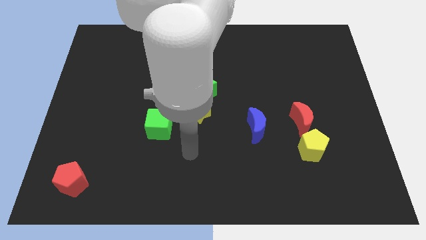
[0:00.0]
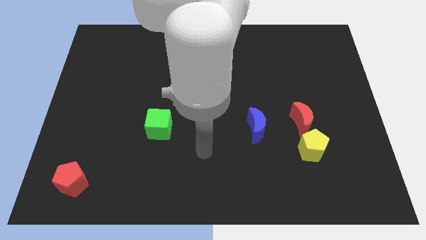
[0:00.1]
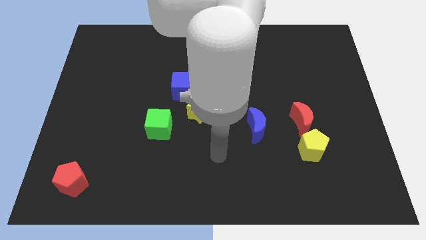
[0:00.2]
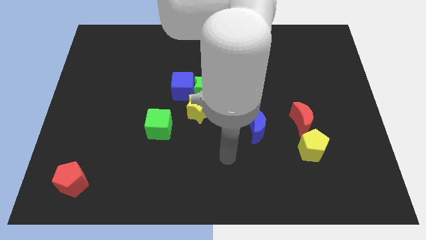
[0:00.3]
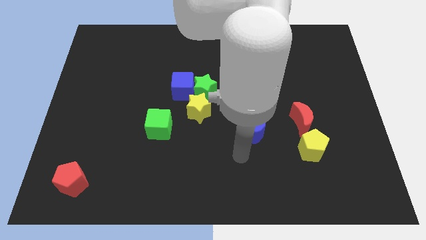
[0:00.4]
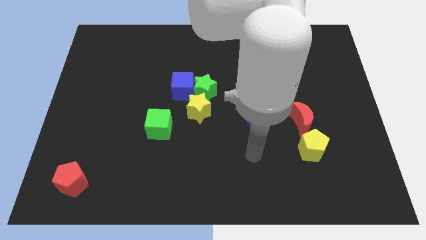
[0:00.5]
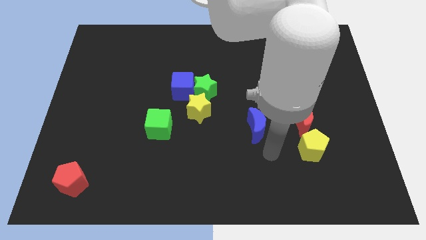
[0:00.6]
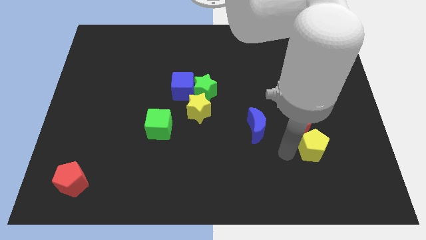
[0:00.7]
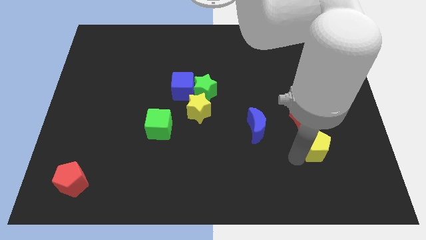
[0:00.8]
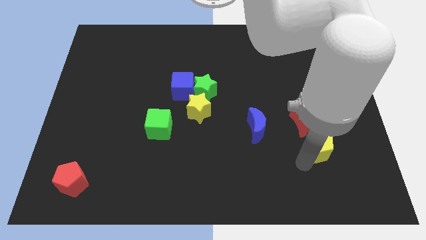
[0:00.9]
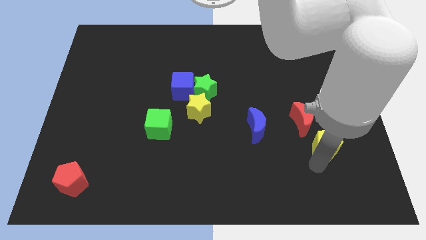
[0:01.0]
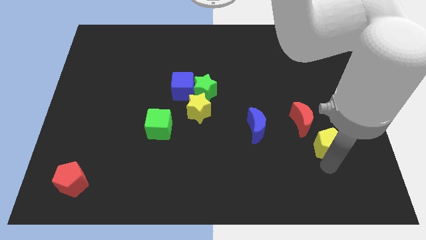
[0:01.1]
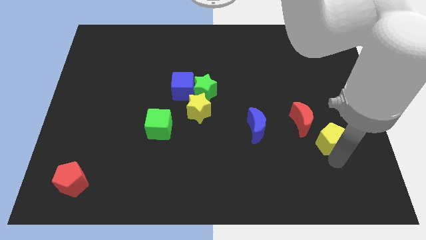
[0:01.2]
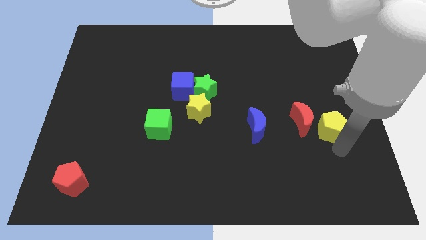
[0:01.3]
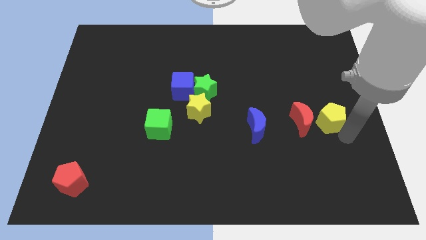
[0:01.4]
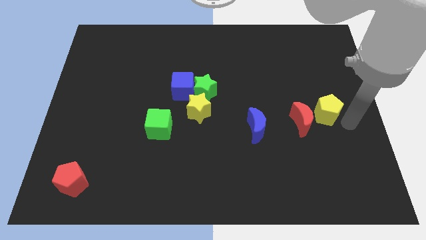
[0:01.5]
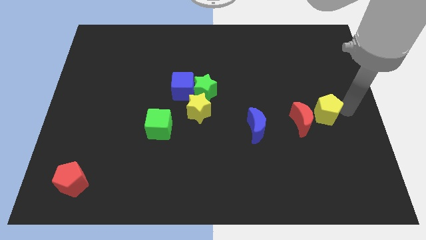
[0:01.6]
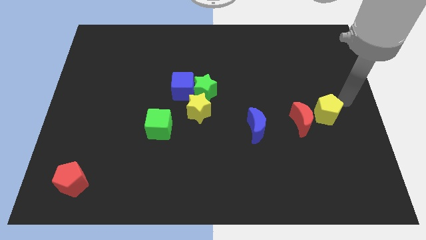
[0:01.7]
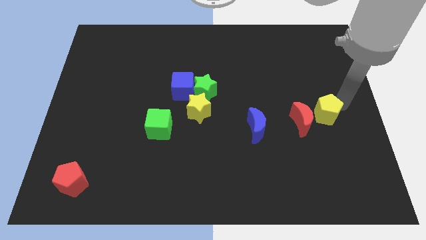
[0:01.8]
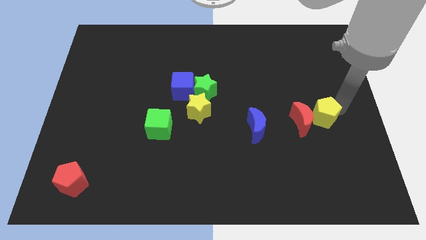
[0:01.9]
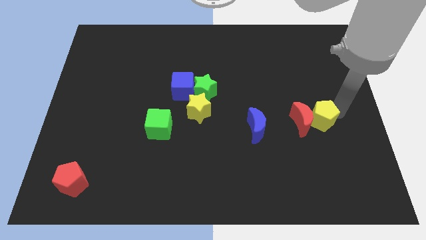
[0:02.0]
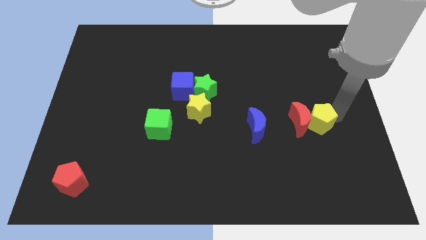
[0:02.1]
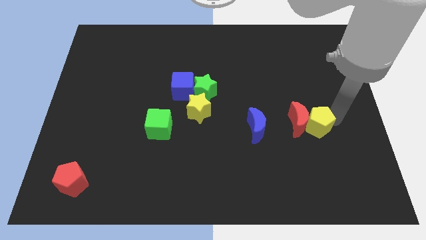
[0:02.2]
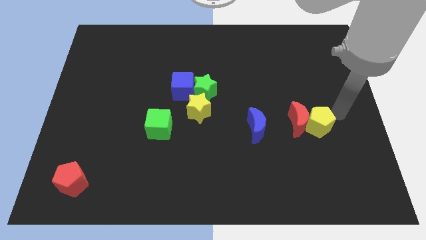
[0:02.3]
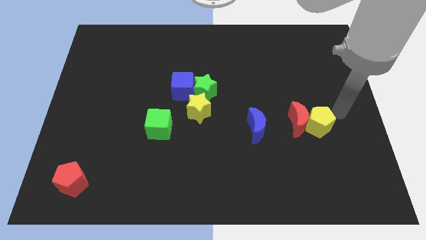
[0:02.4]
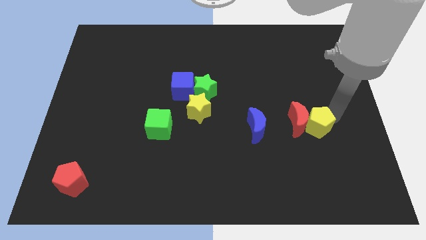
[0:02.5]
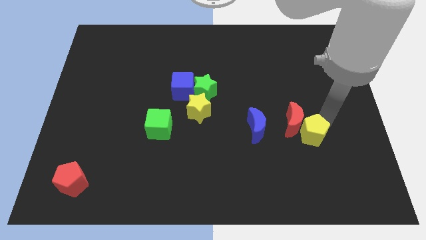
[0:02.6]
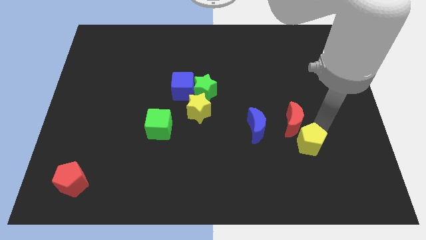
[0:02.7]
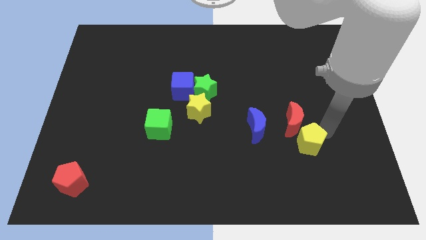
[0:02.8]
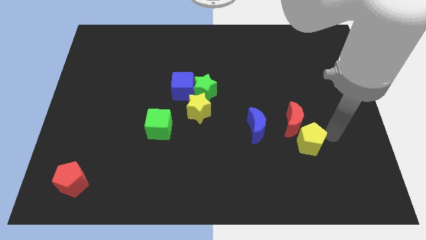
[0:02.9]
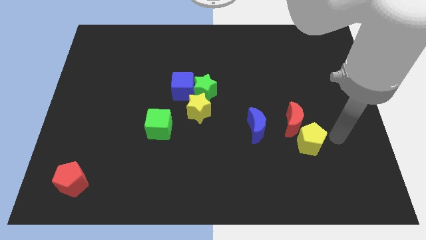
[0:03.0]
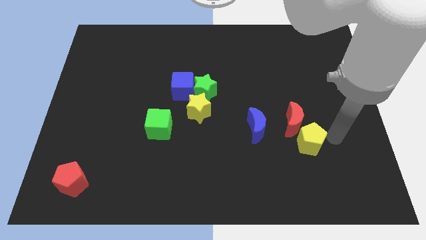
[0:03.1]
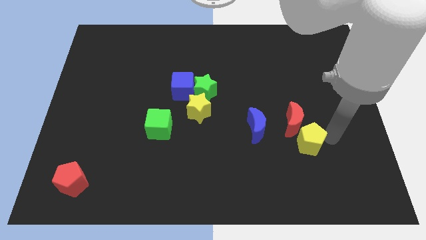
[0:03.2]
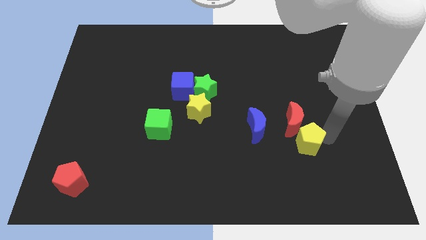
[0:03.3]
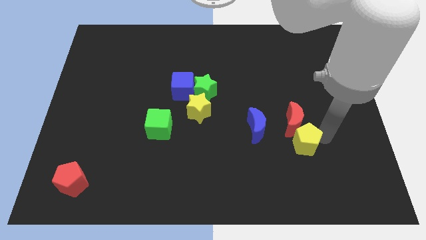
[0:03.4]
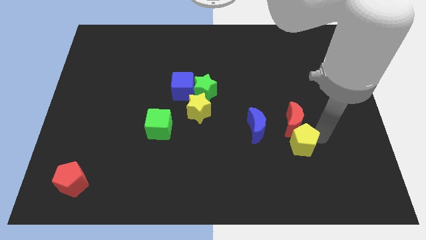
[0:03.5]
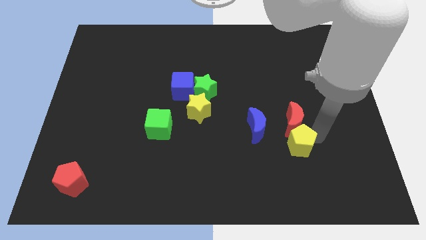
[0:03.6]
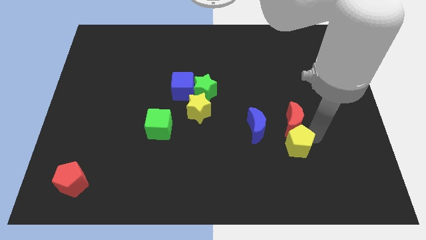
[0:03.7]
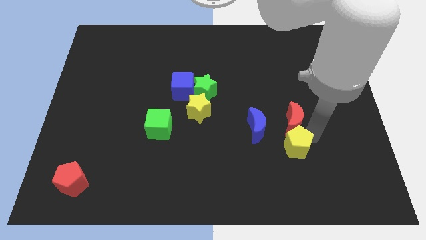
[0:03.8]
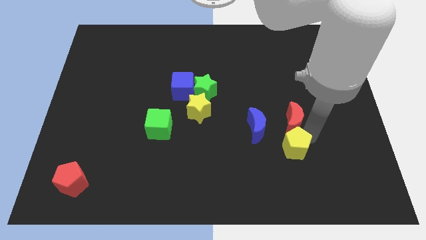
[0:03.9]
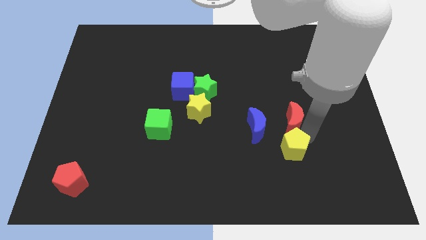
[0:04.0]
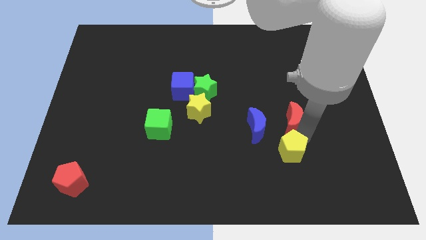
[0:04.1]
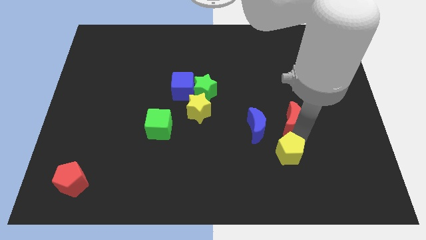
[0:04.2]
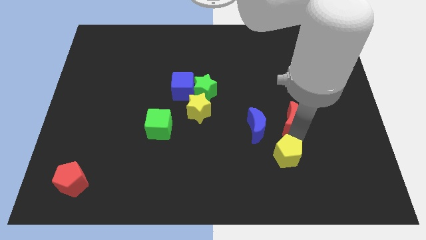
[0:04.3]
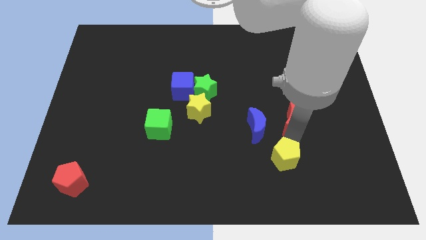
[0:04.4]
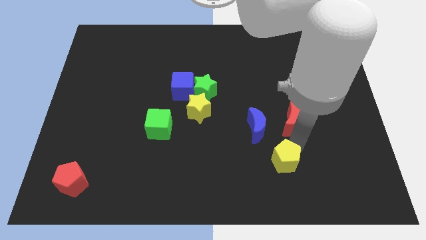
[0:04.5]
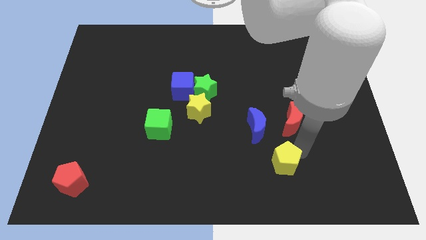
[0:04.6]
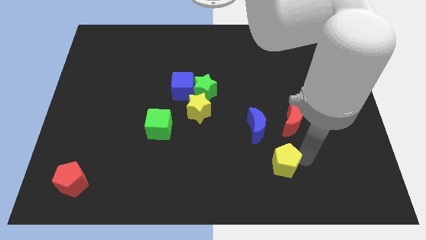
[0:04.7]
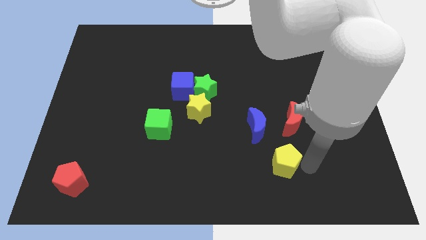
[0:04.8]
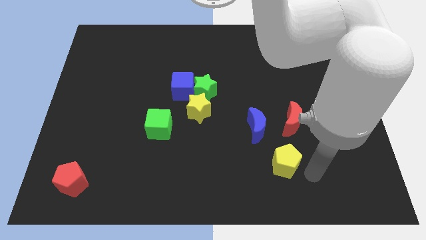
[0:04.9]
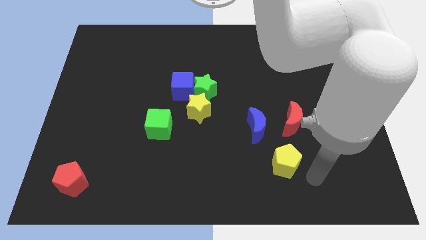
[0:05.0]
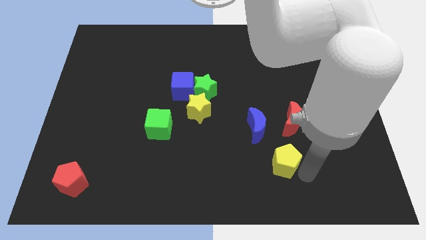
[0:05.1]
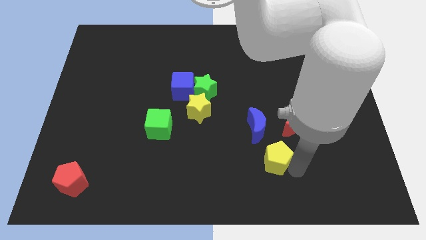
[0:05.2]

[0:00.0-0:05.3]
move the yellow pentagon to the left a little bit

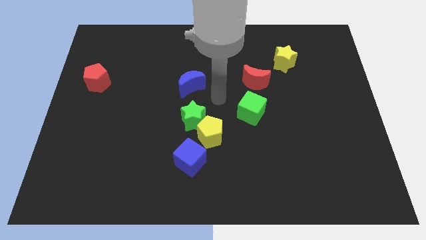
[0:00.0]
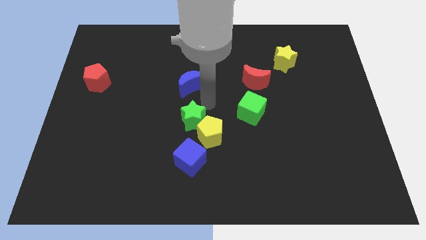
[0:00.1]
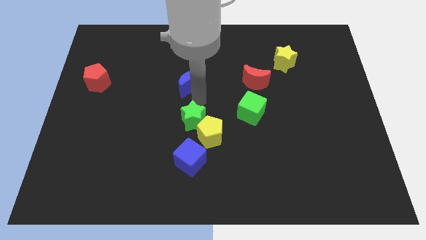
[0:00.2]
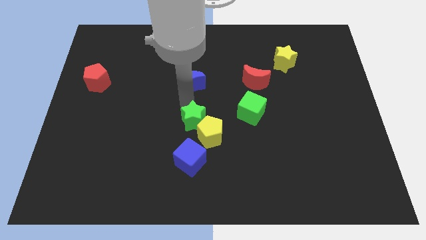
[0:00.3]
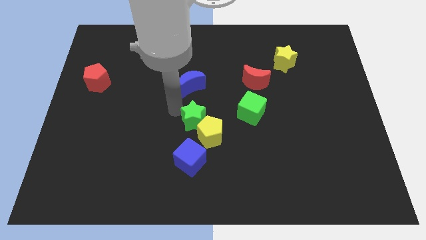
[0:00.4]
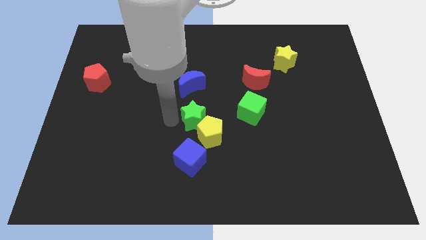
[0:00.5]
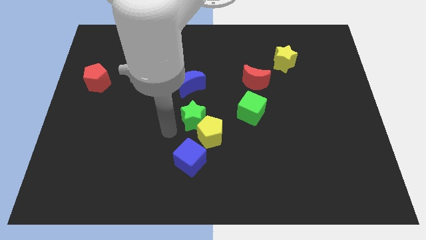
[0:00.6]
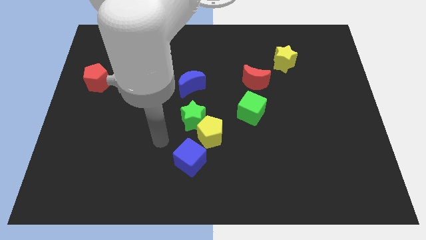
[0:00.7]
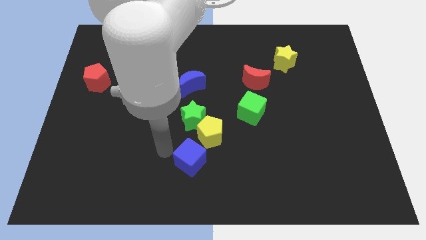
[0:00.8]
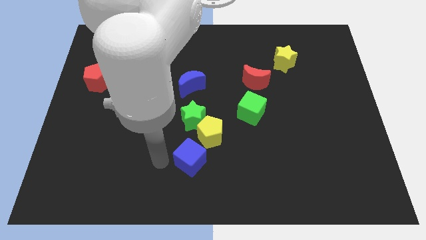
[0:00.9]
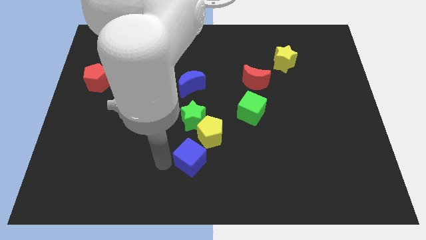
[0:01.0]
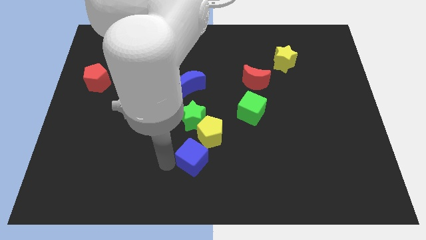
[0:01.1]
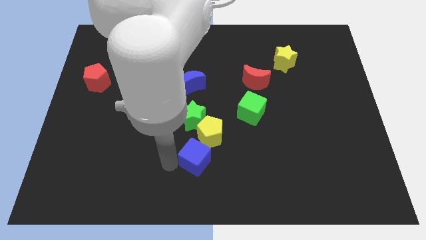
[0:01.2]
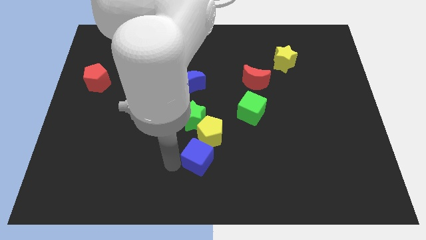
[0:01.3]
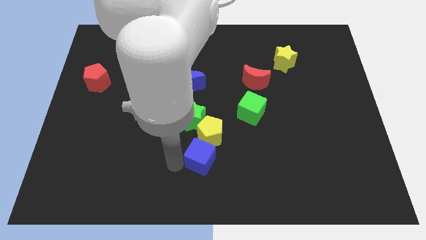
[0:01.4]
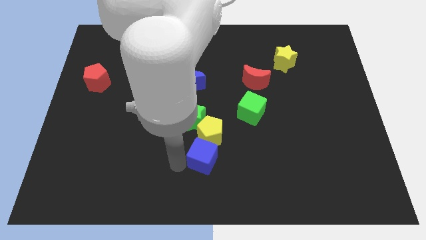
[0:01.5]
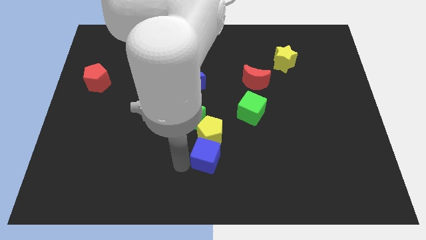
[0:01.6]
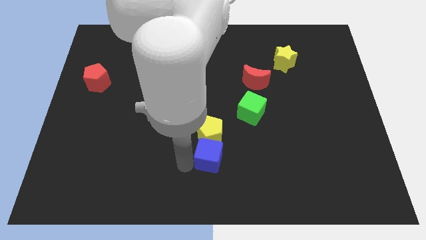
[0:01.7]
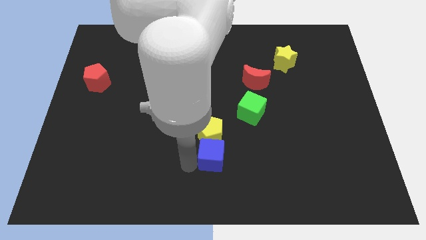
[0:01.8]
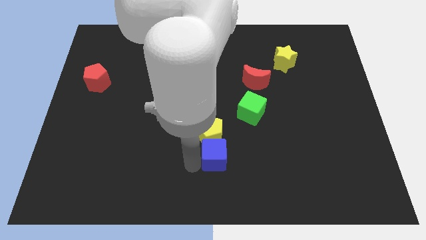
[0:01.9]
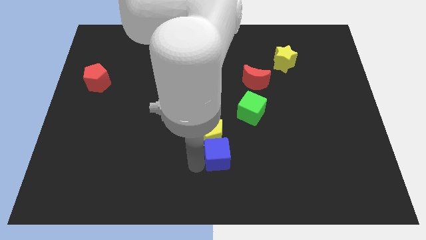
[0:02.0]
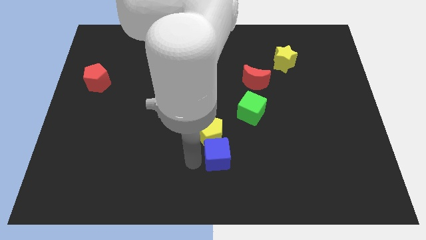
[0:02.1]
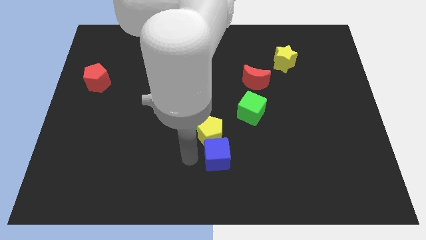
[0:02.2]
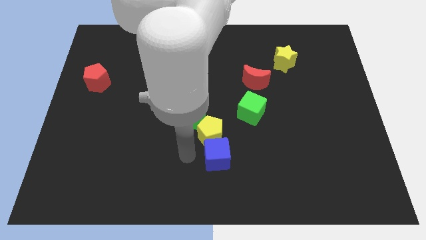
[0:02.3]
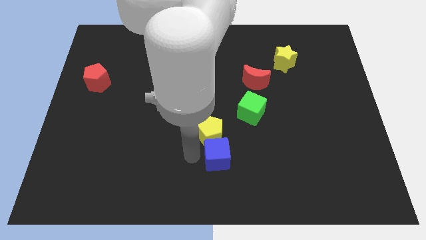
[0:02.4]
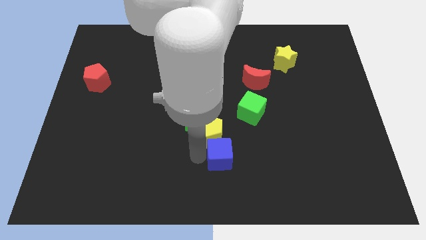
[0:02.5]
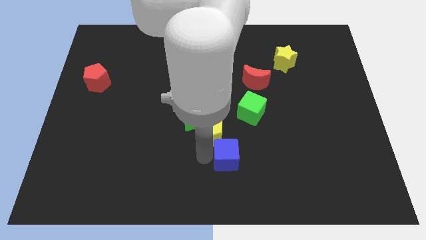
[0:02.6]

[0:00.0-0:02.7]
slide the blue cube somewhat to the right
